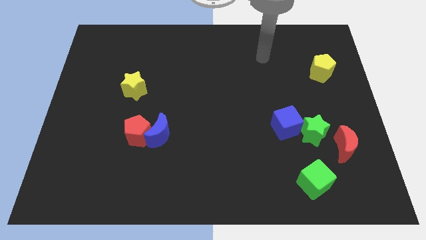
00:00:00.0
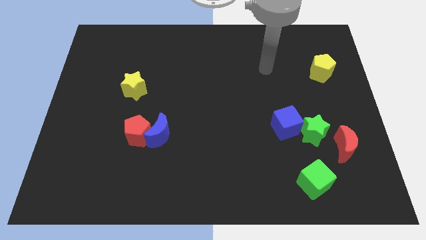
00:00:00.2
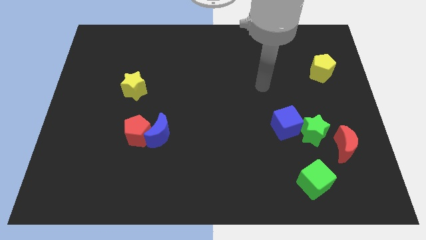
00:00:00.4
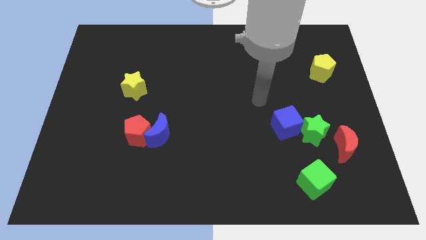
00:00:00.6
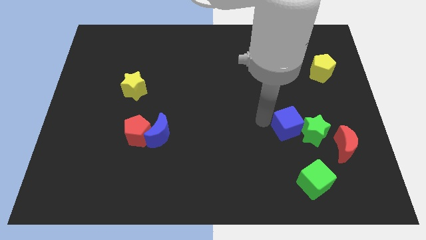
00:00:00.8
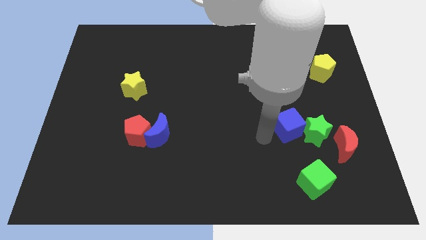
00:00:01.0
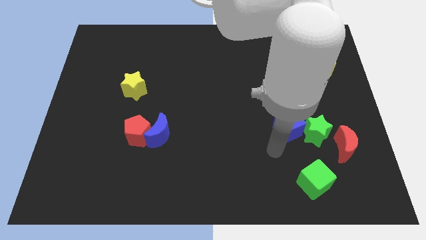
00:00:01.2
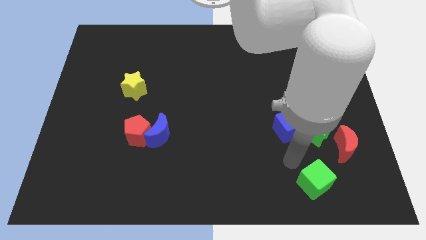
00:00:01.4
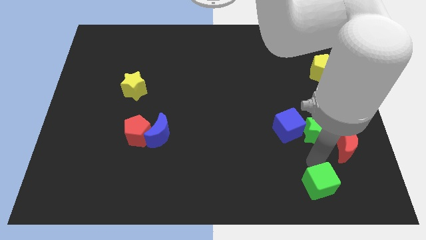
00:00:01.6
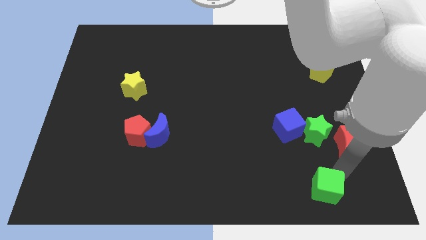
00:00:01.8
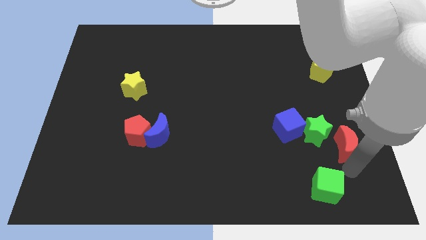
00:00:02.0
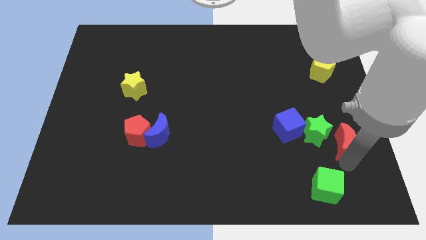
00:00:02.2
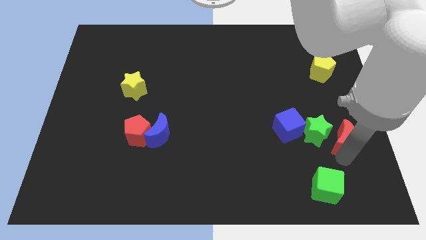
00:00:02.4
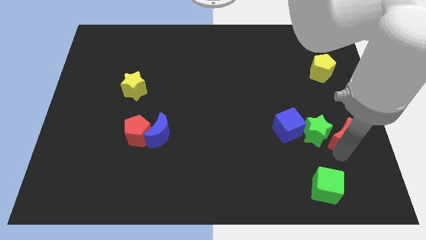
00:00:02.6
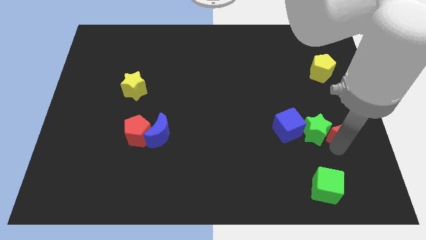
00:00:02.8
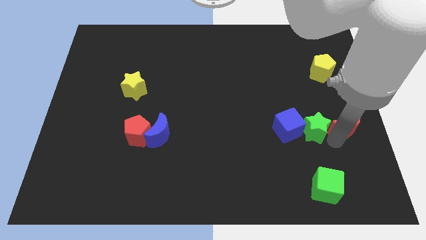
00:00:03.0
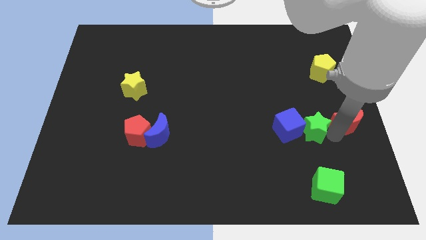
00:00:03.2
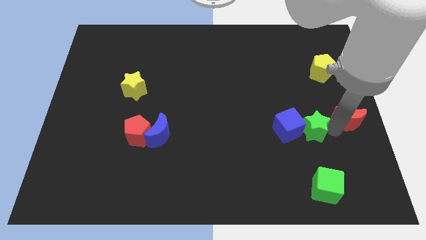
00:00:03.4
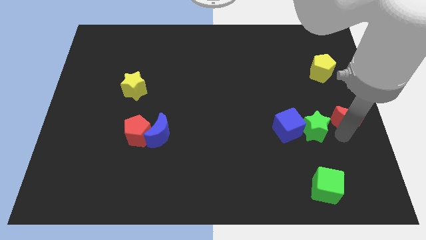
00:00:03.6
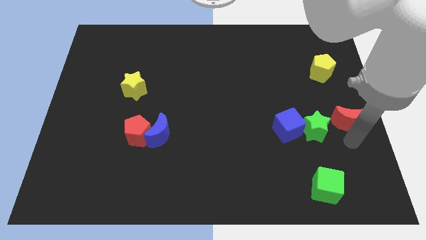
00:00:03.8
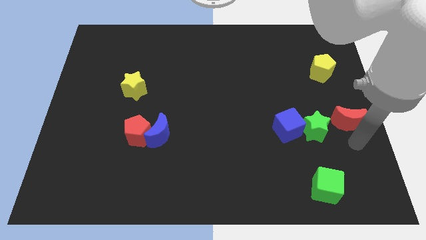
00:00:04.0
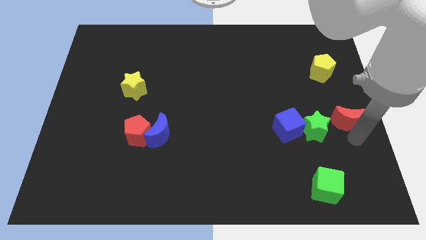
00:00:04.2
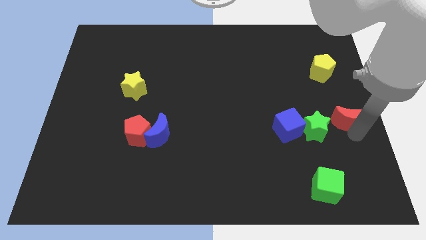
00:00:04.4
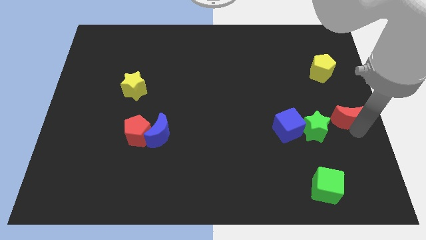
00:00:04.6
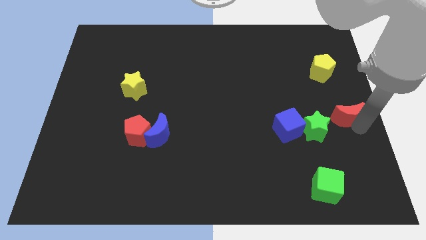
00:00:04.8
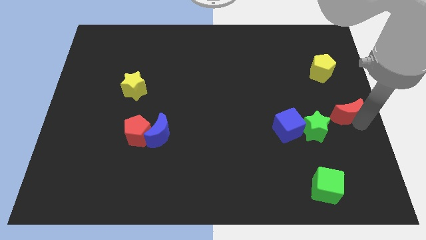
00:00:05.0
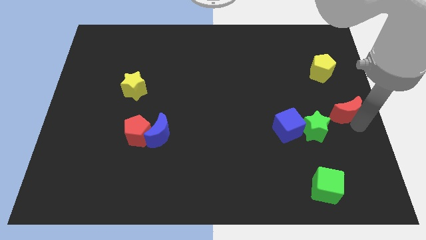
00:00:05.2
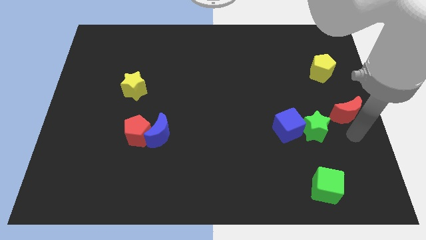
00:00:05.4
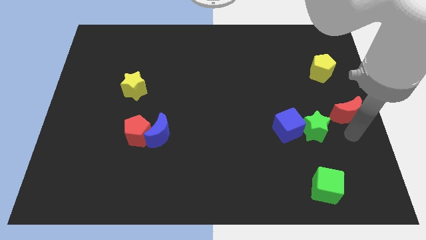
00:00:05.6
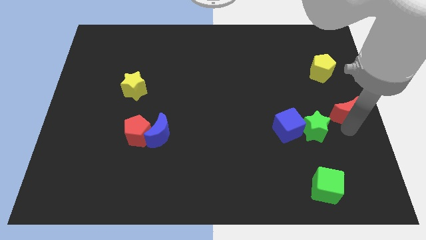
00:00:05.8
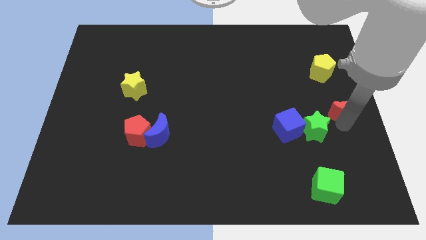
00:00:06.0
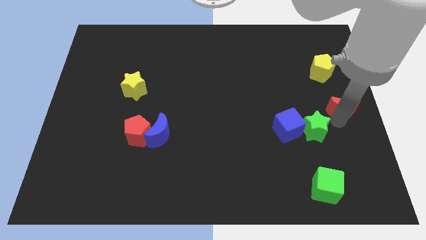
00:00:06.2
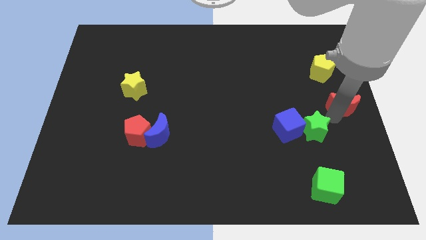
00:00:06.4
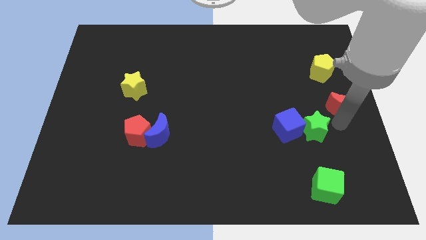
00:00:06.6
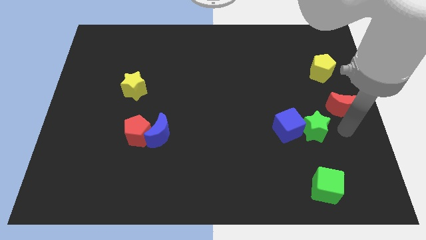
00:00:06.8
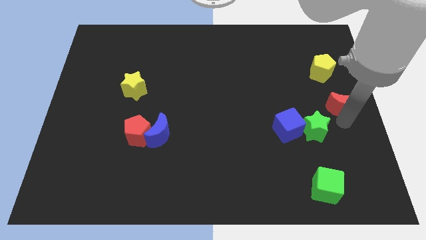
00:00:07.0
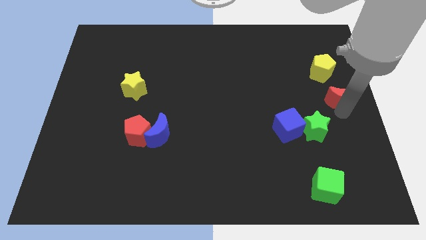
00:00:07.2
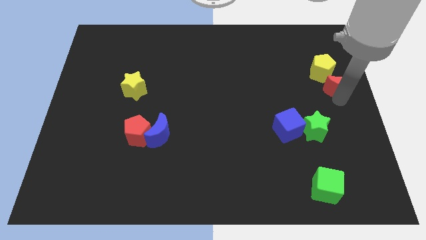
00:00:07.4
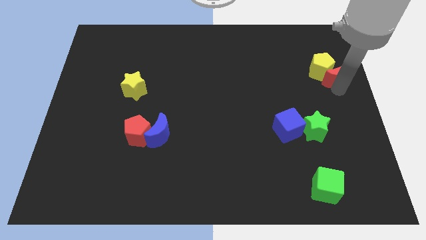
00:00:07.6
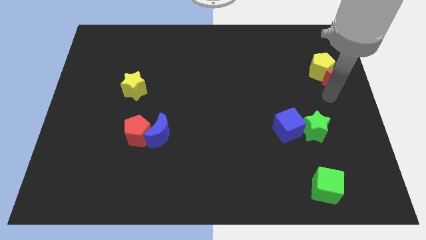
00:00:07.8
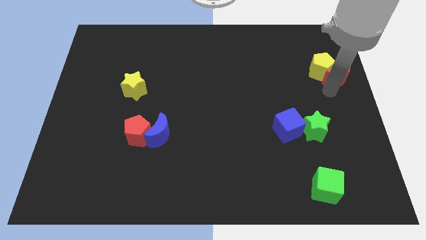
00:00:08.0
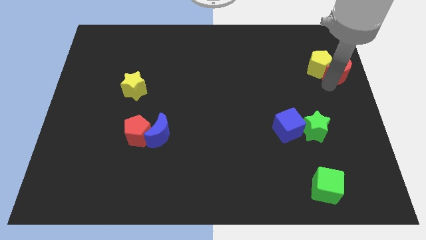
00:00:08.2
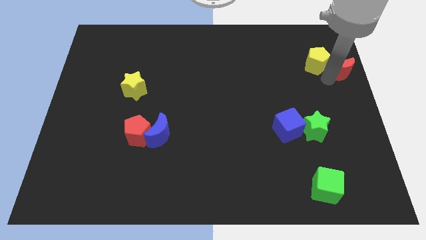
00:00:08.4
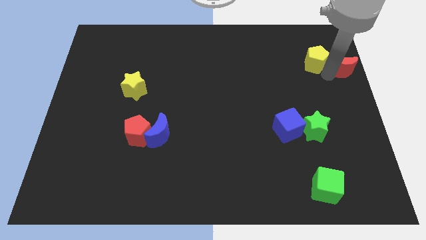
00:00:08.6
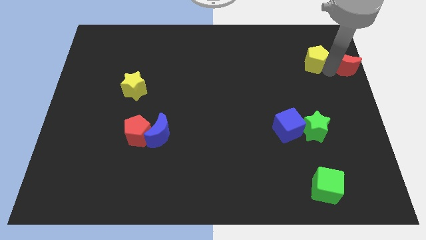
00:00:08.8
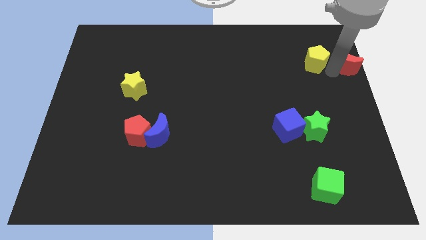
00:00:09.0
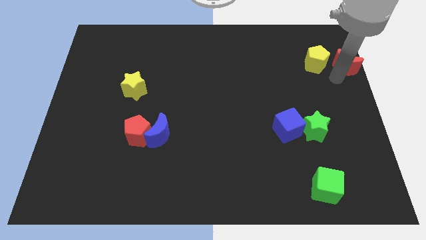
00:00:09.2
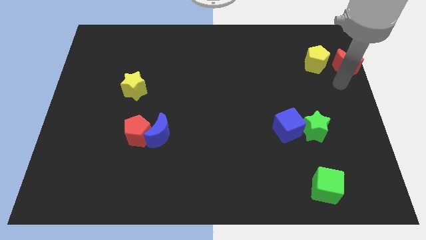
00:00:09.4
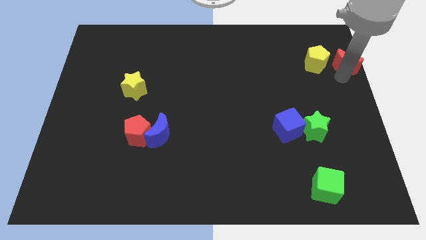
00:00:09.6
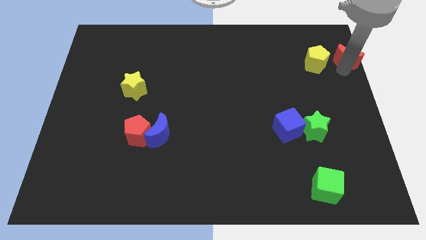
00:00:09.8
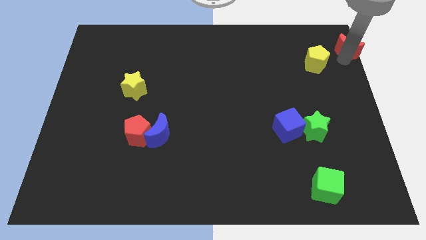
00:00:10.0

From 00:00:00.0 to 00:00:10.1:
move the red moon to the upper right corner

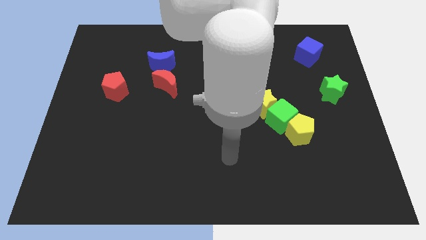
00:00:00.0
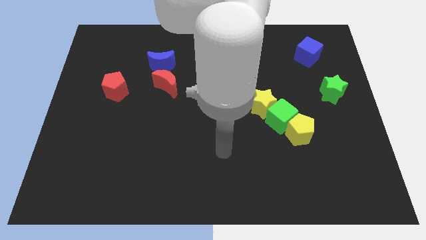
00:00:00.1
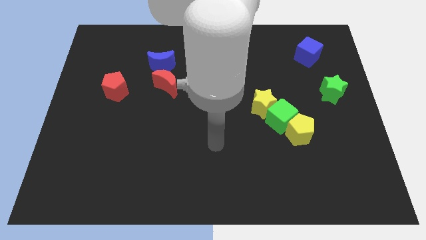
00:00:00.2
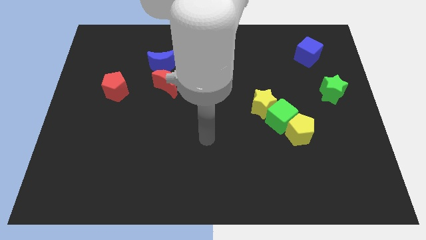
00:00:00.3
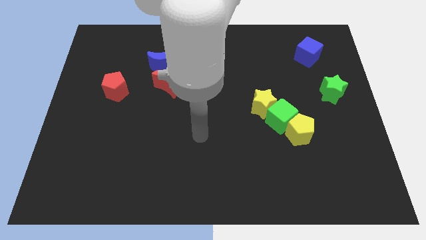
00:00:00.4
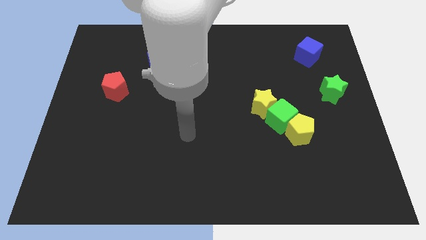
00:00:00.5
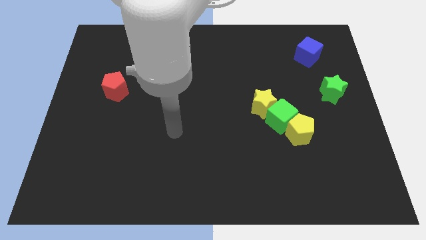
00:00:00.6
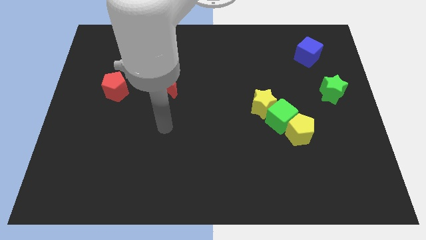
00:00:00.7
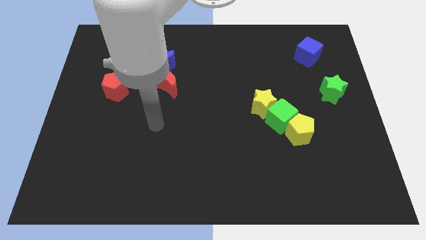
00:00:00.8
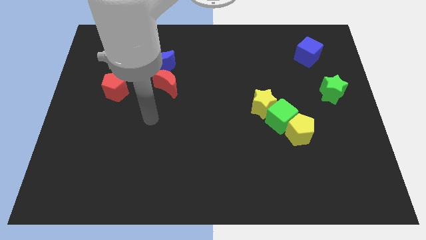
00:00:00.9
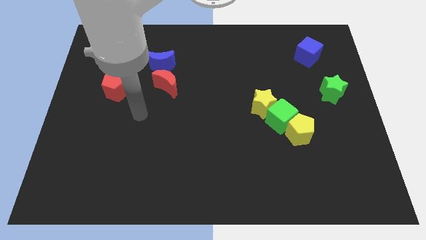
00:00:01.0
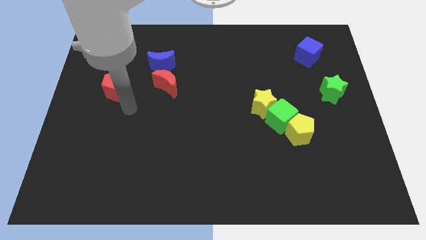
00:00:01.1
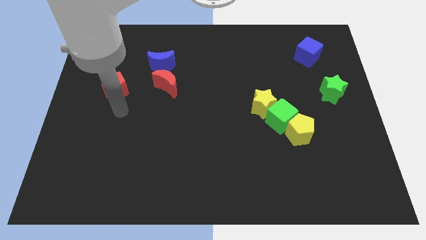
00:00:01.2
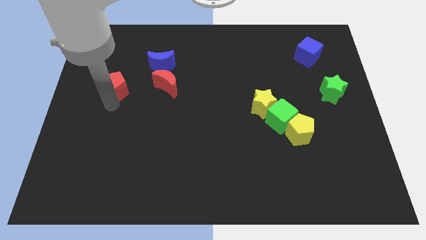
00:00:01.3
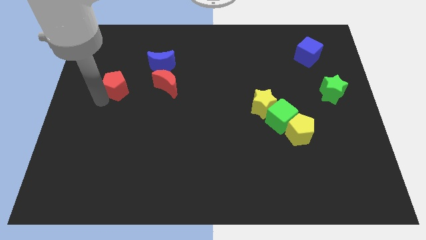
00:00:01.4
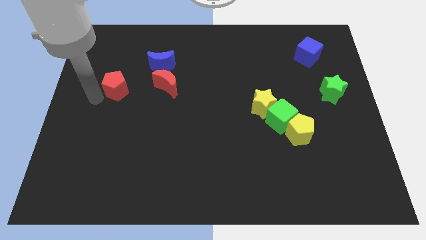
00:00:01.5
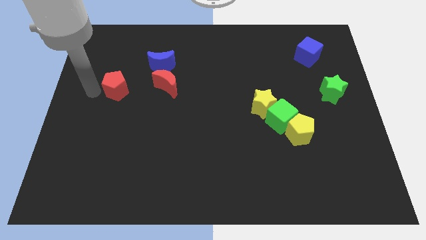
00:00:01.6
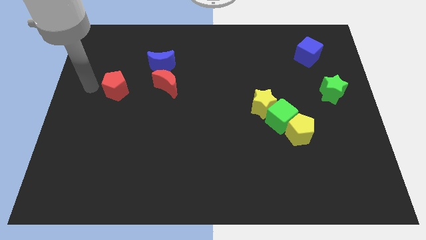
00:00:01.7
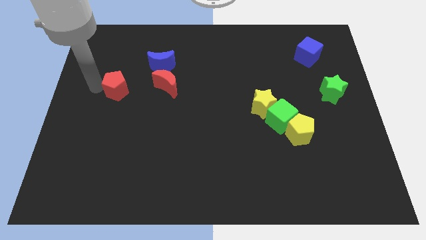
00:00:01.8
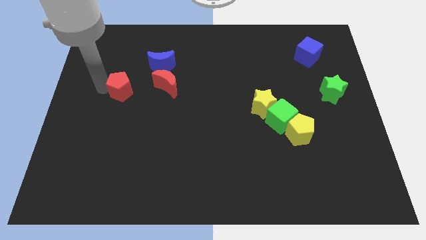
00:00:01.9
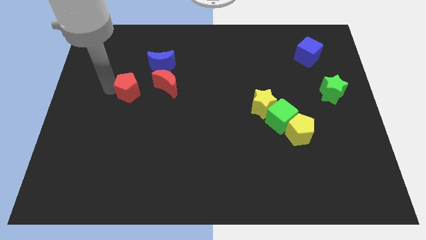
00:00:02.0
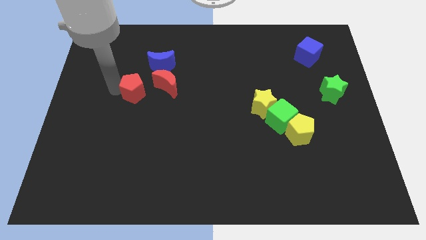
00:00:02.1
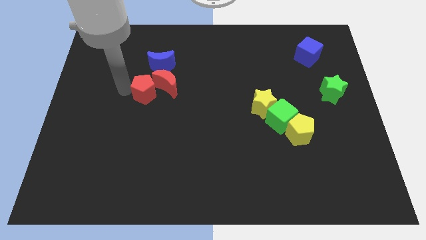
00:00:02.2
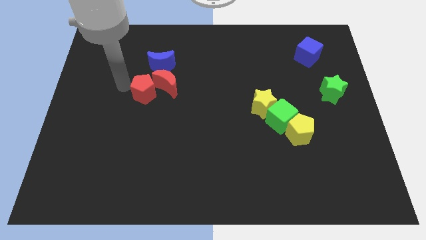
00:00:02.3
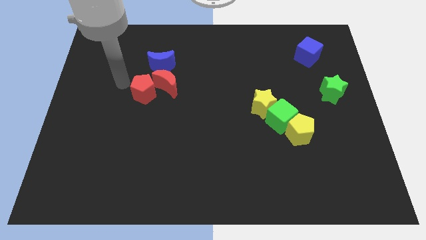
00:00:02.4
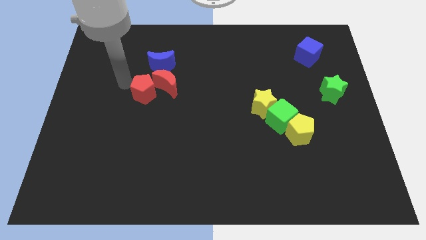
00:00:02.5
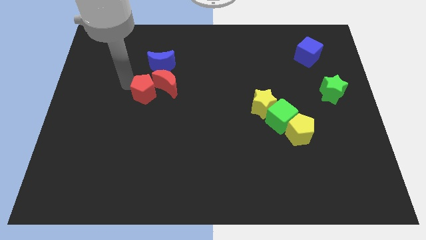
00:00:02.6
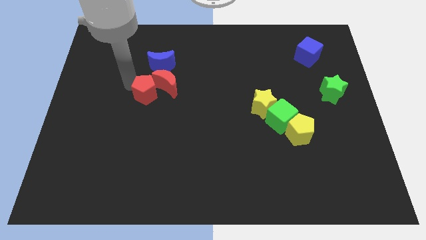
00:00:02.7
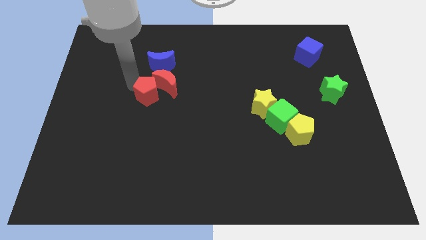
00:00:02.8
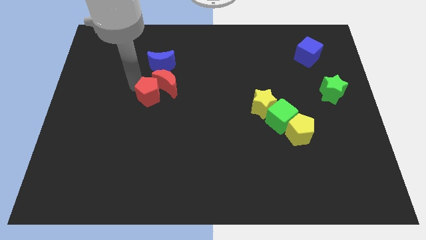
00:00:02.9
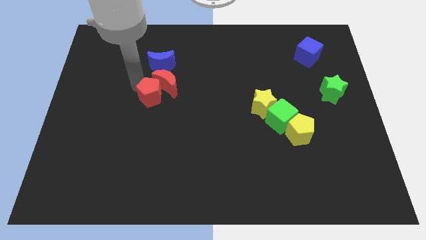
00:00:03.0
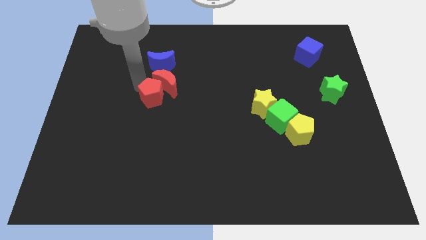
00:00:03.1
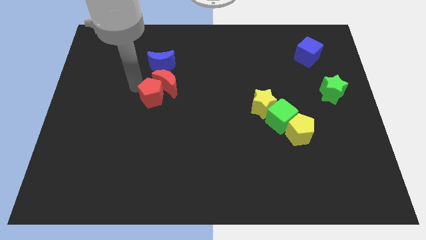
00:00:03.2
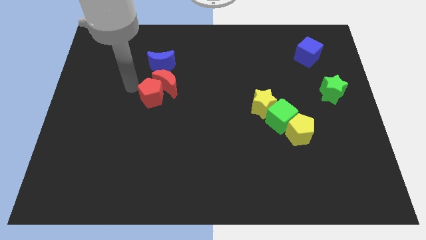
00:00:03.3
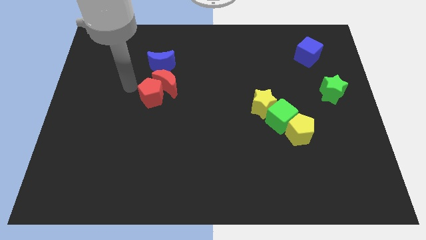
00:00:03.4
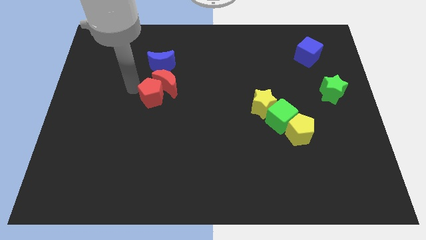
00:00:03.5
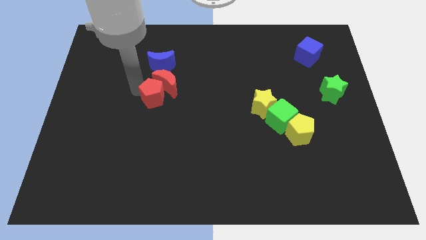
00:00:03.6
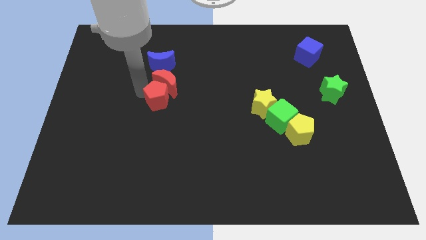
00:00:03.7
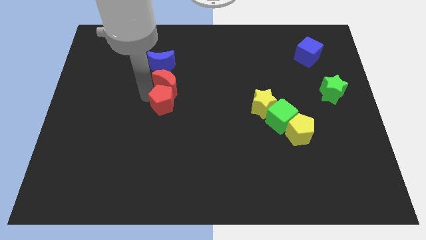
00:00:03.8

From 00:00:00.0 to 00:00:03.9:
slide the red pentagon to the middle
